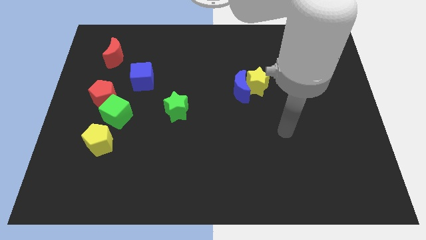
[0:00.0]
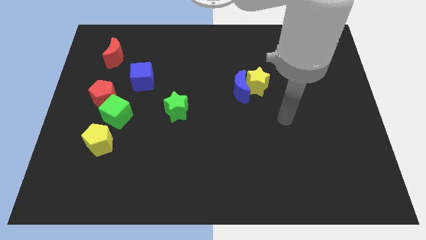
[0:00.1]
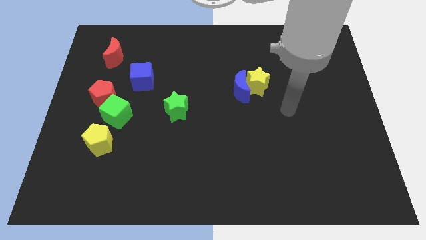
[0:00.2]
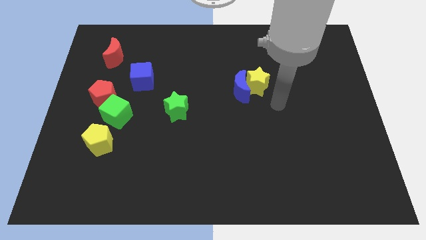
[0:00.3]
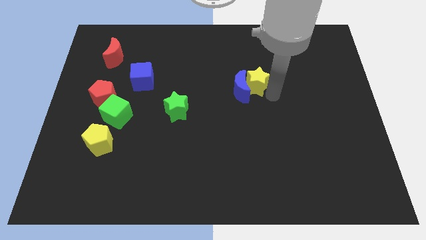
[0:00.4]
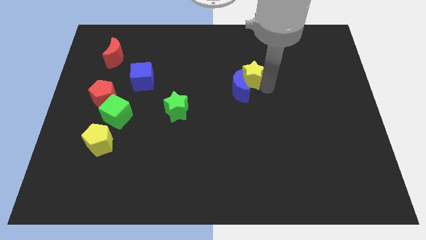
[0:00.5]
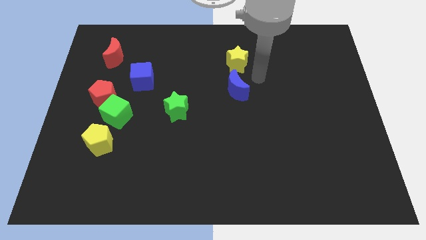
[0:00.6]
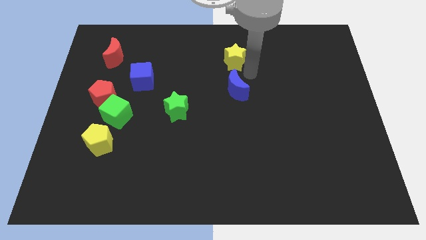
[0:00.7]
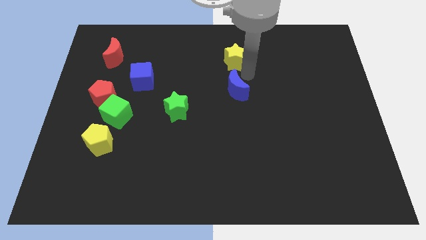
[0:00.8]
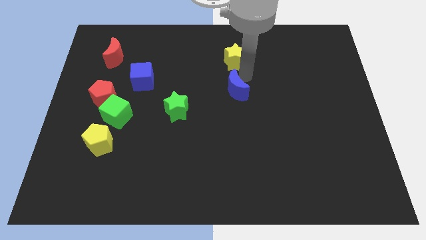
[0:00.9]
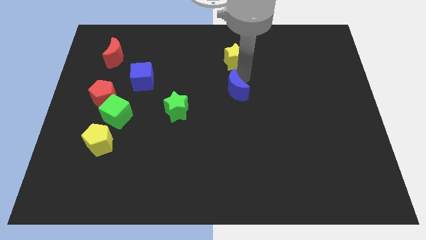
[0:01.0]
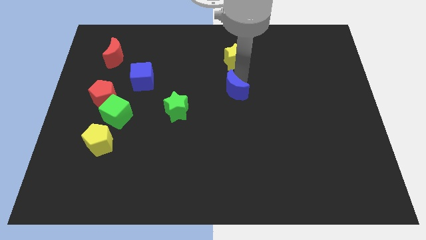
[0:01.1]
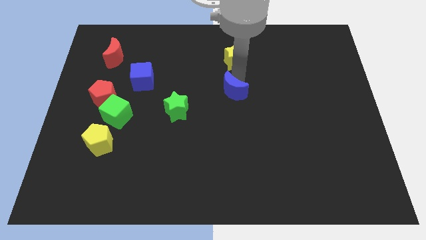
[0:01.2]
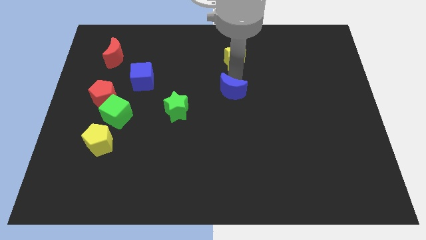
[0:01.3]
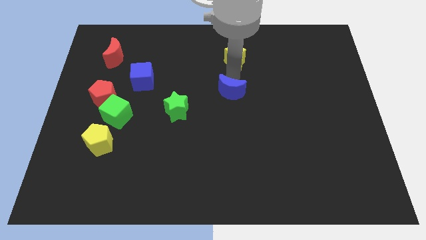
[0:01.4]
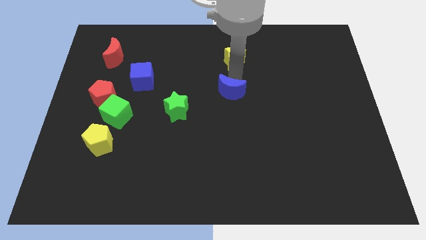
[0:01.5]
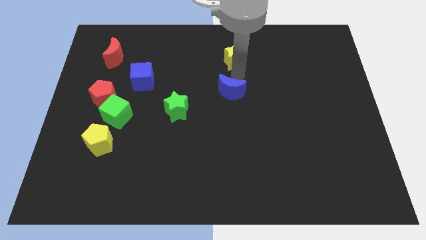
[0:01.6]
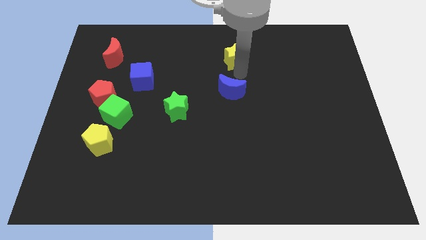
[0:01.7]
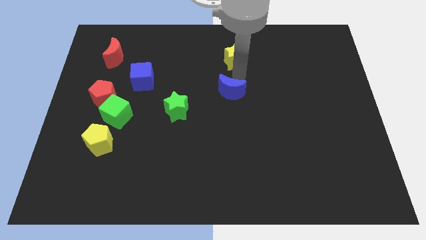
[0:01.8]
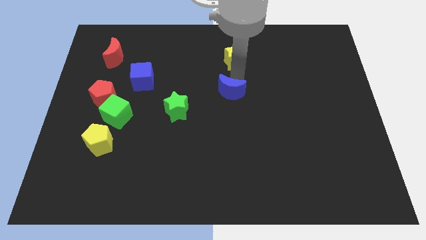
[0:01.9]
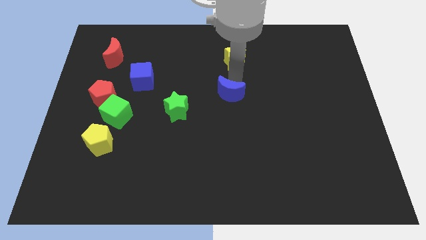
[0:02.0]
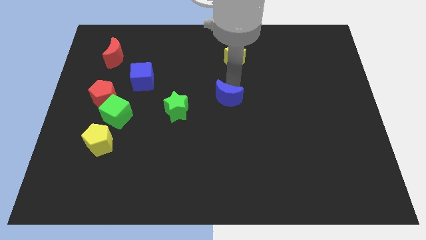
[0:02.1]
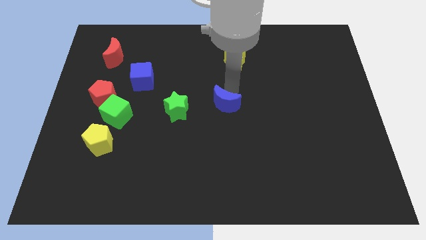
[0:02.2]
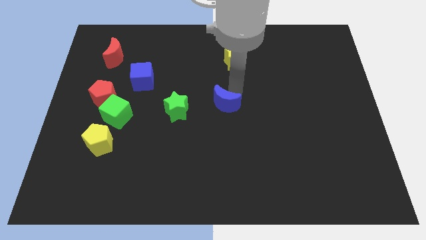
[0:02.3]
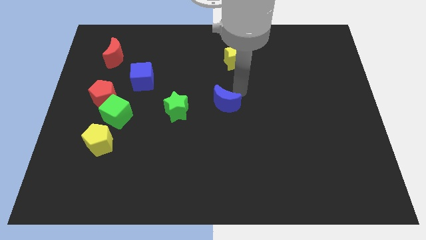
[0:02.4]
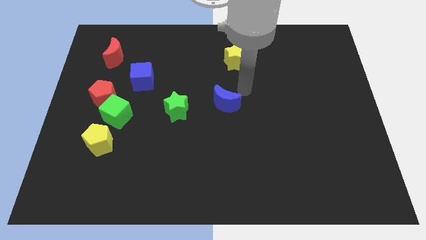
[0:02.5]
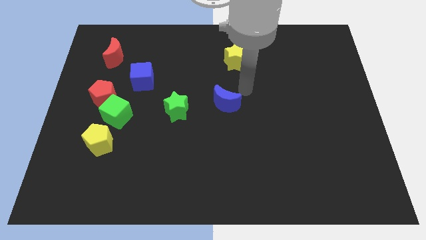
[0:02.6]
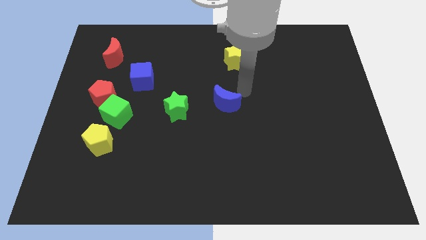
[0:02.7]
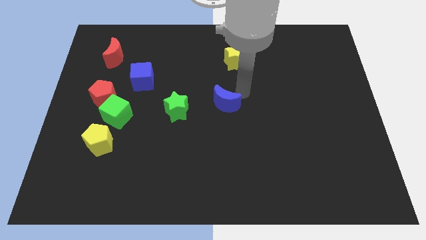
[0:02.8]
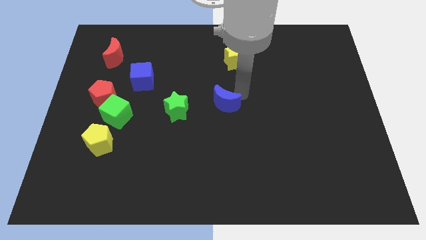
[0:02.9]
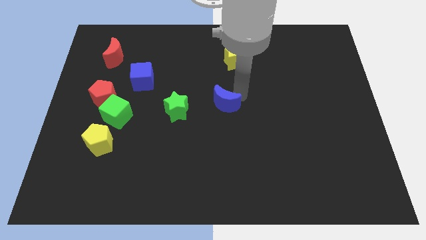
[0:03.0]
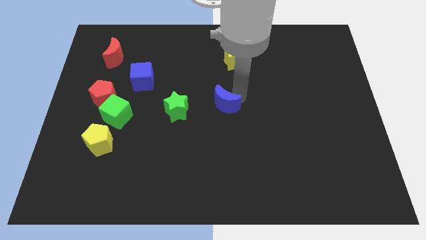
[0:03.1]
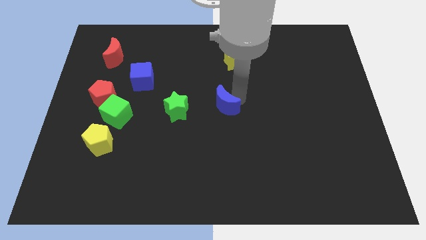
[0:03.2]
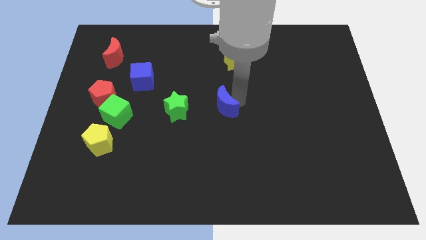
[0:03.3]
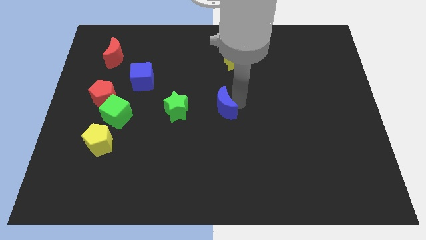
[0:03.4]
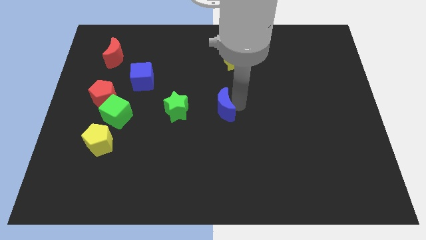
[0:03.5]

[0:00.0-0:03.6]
push the blue moon downwards and to the left a little

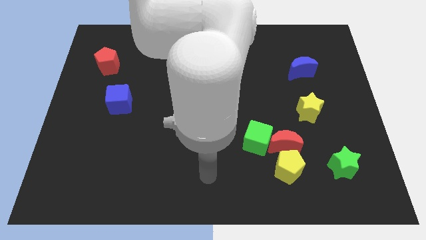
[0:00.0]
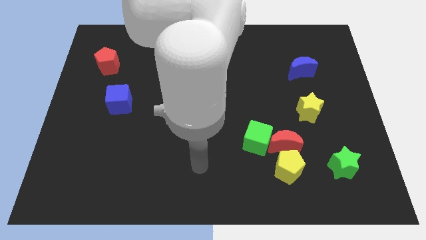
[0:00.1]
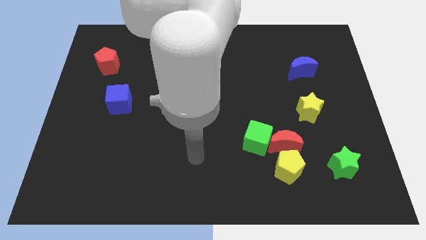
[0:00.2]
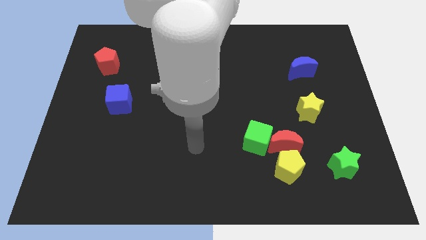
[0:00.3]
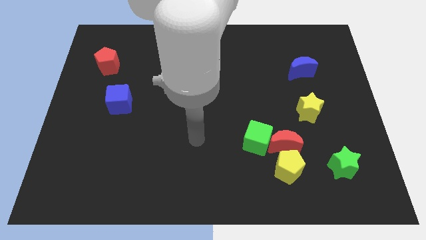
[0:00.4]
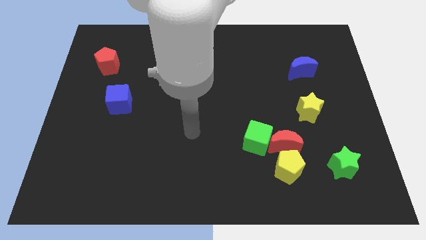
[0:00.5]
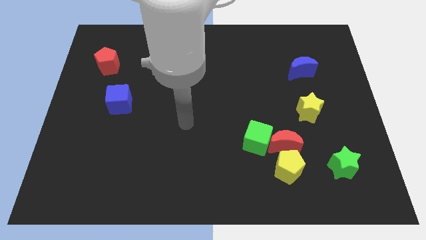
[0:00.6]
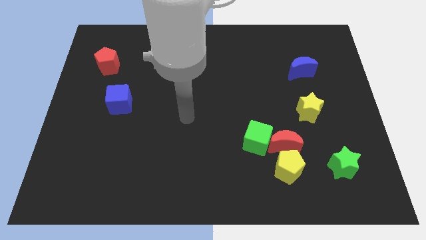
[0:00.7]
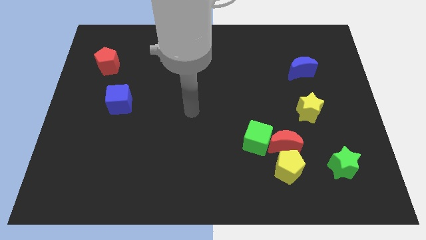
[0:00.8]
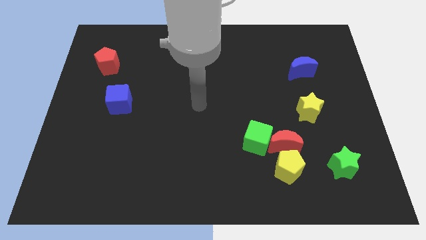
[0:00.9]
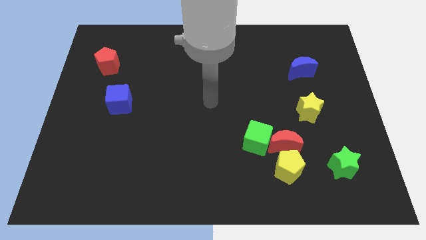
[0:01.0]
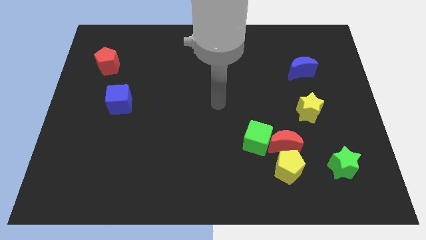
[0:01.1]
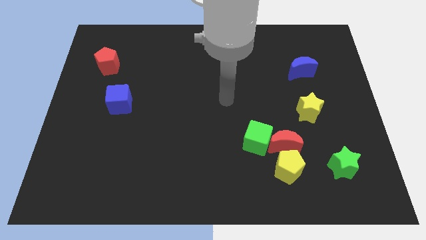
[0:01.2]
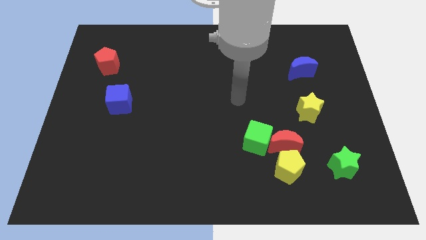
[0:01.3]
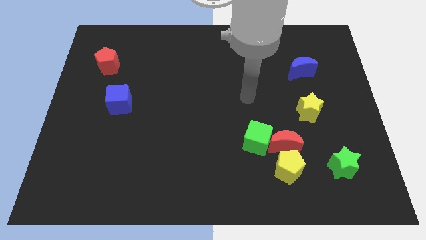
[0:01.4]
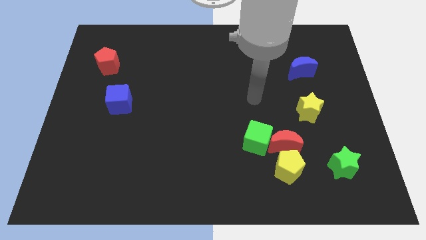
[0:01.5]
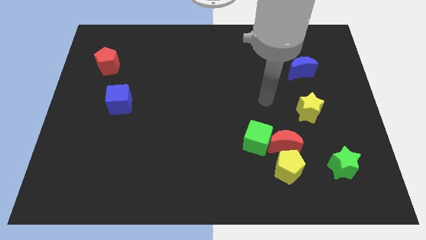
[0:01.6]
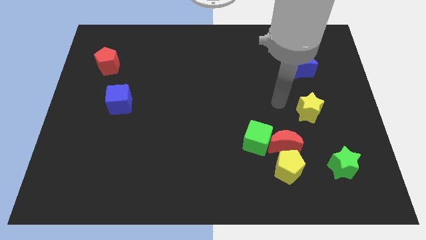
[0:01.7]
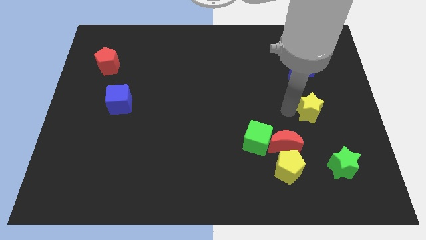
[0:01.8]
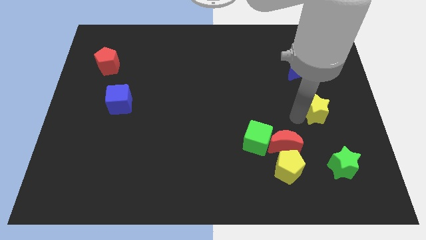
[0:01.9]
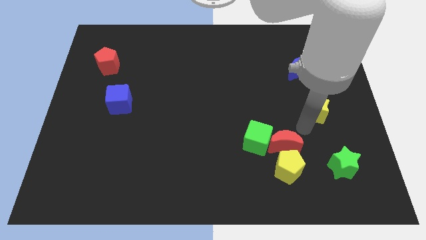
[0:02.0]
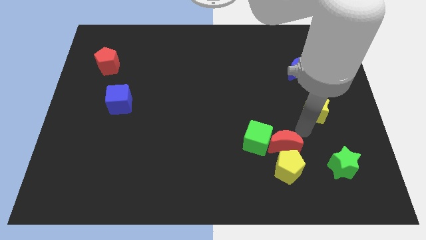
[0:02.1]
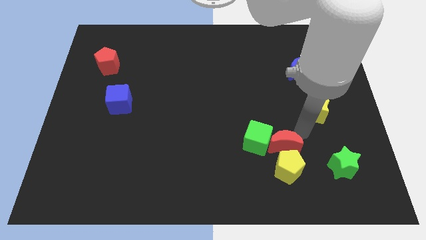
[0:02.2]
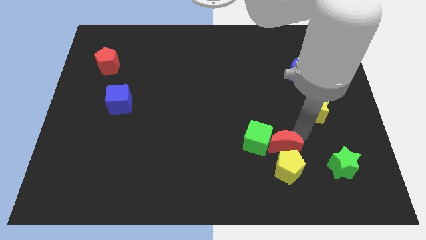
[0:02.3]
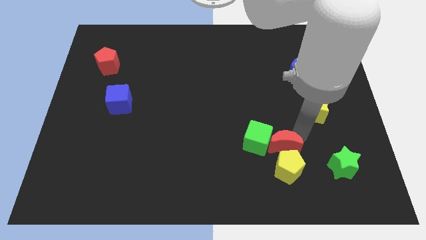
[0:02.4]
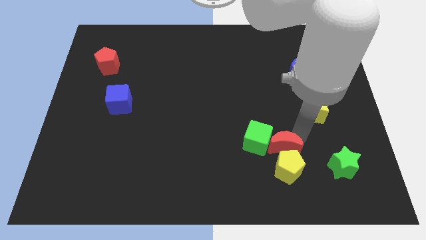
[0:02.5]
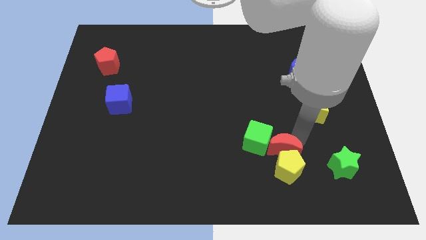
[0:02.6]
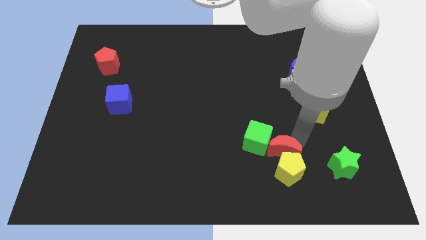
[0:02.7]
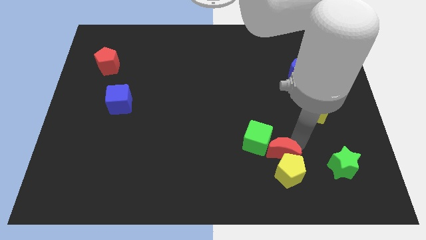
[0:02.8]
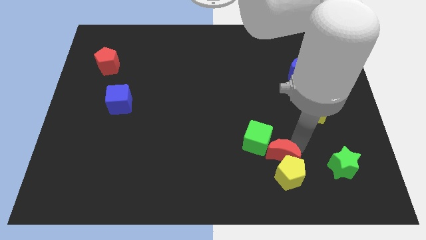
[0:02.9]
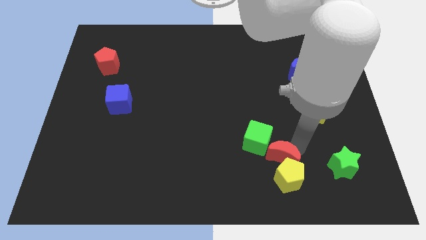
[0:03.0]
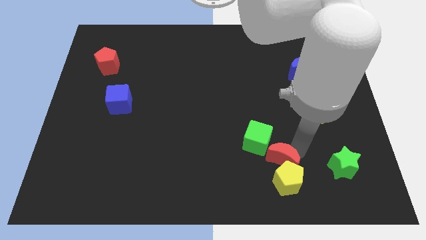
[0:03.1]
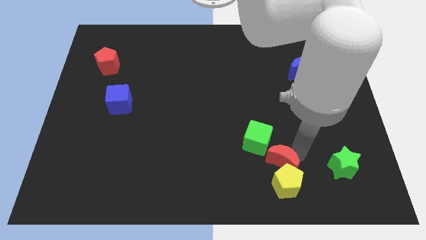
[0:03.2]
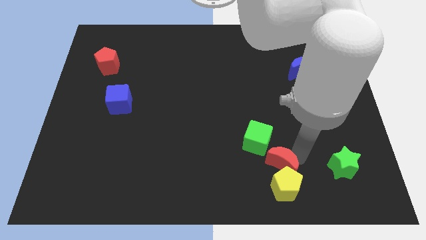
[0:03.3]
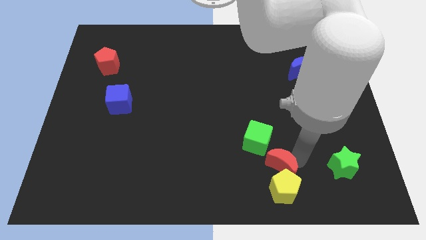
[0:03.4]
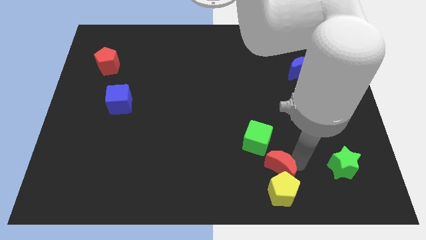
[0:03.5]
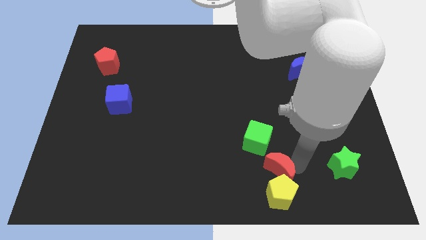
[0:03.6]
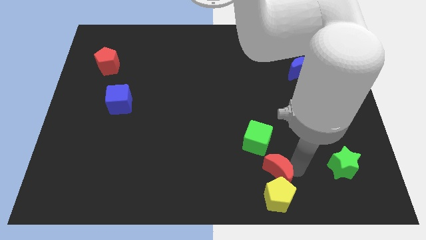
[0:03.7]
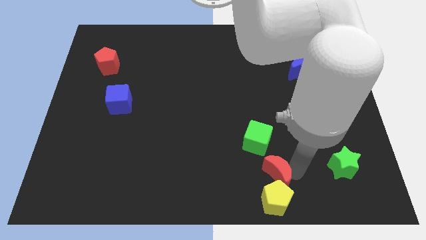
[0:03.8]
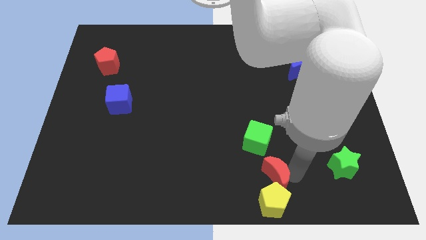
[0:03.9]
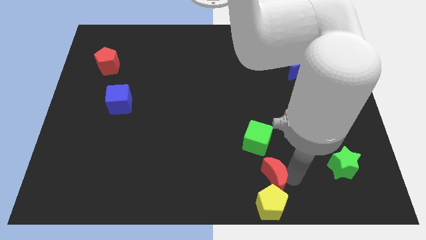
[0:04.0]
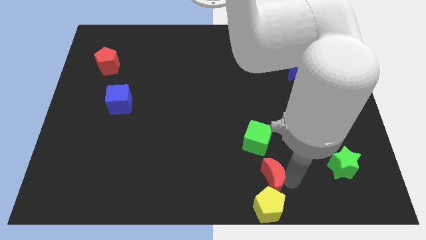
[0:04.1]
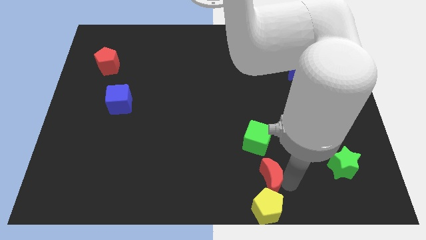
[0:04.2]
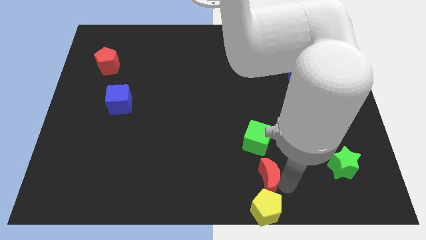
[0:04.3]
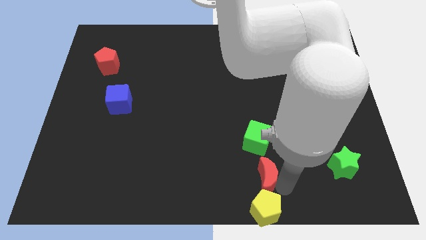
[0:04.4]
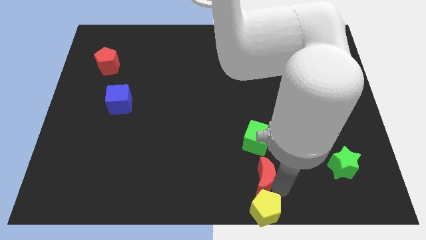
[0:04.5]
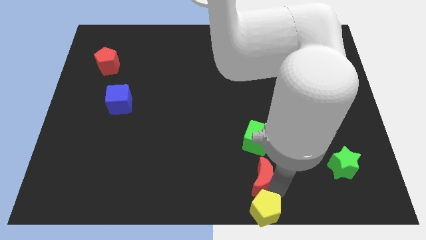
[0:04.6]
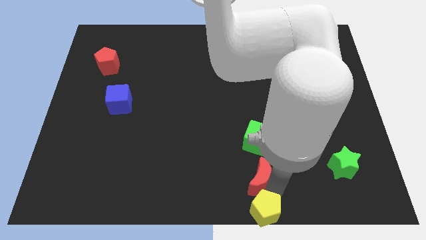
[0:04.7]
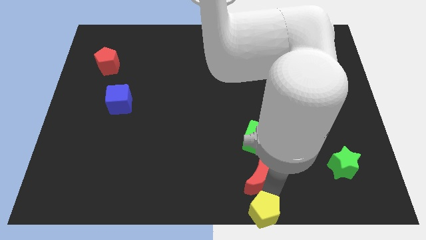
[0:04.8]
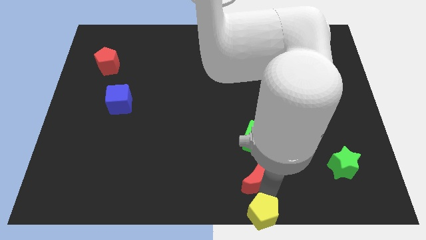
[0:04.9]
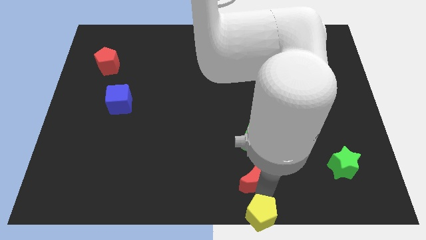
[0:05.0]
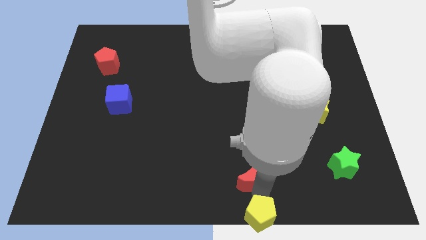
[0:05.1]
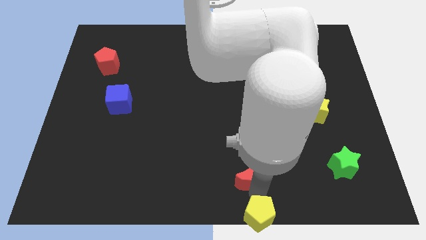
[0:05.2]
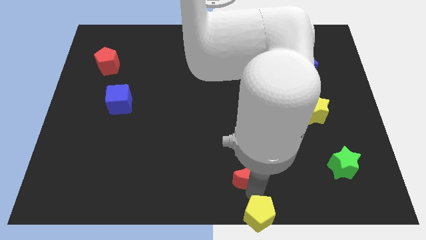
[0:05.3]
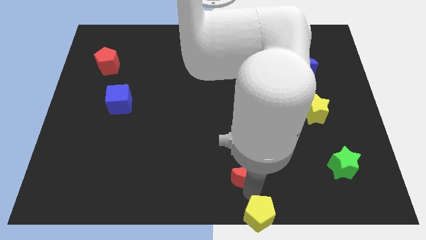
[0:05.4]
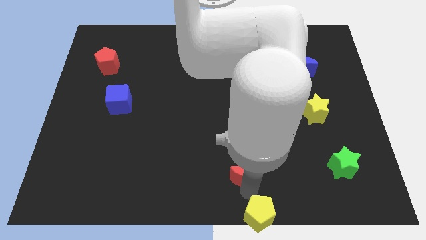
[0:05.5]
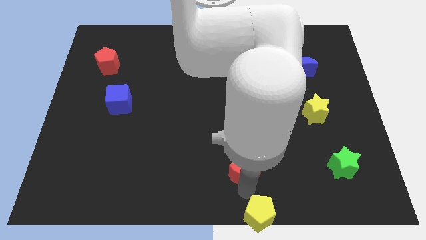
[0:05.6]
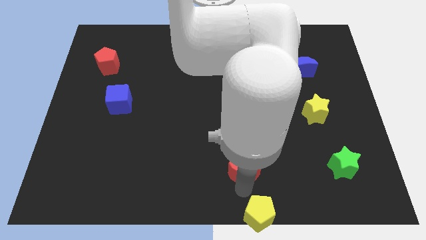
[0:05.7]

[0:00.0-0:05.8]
move the red moon somewhat left
